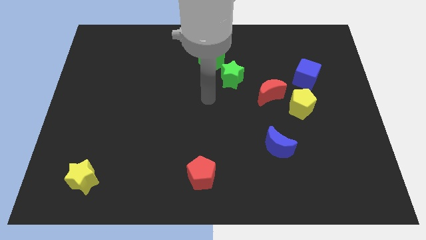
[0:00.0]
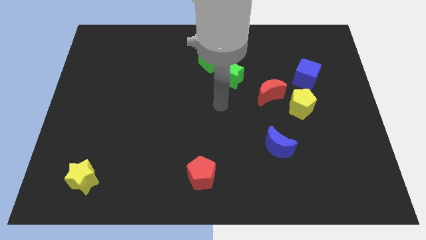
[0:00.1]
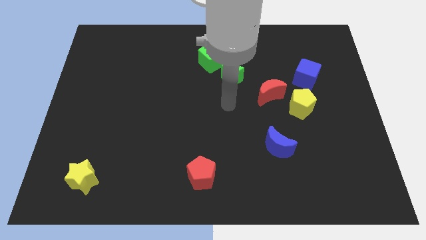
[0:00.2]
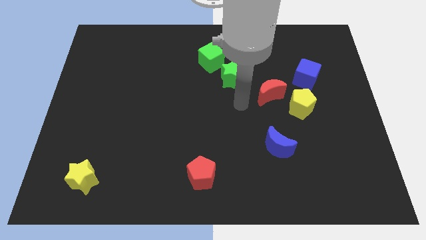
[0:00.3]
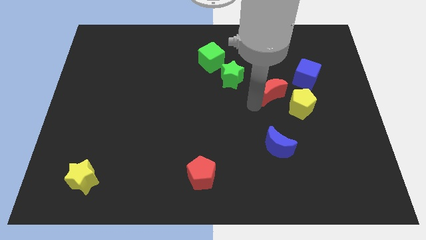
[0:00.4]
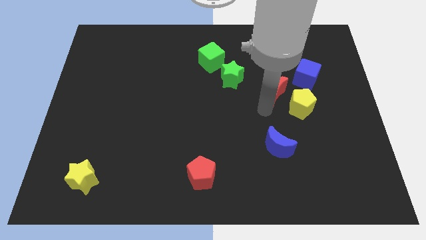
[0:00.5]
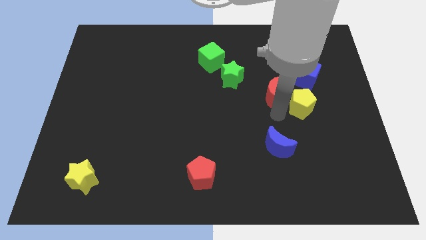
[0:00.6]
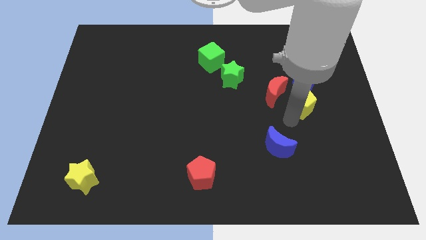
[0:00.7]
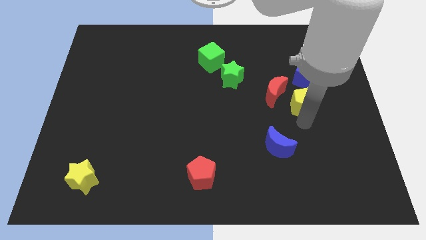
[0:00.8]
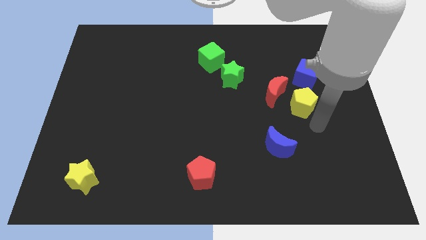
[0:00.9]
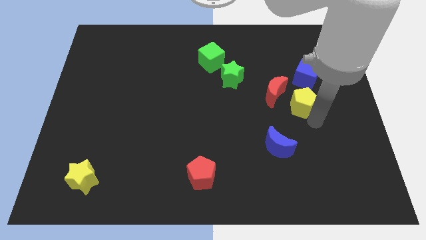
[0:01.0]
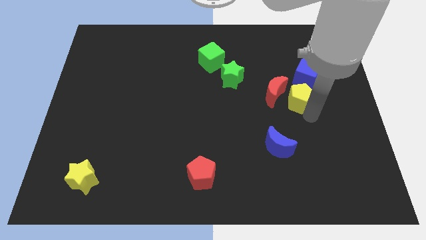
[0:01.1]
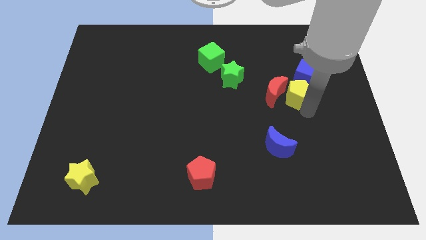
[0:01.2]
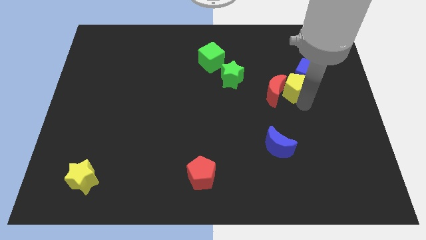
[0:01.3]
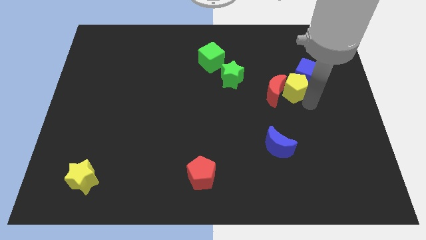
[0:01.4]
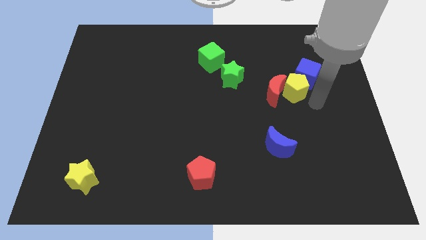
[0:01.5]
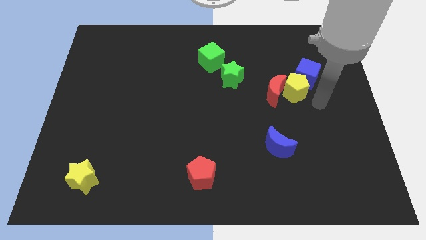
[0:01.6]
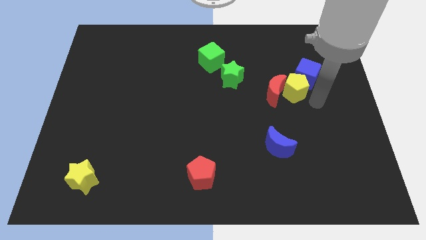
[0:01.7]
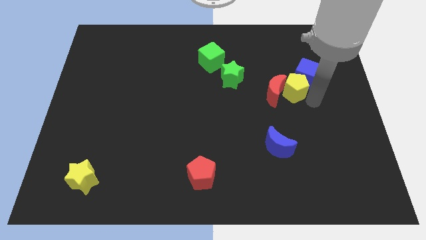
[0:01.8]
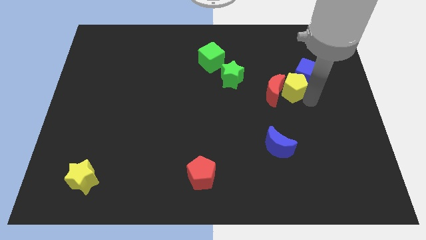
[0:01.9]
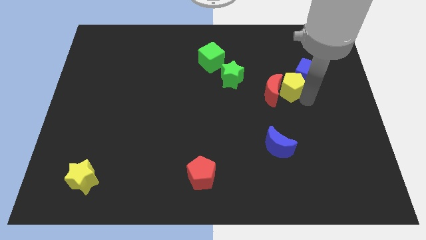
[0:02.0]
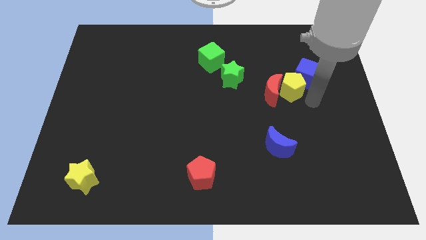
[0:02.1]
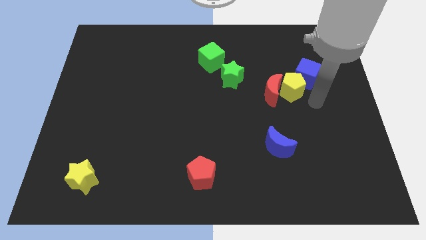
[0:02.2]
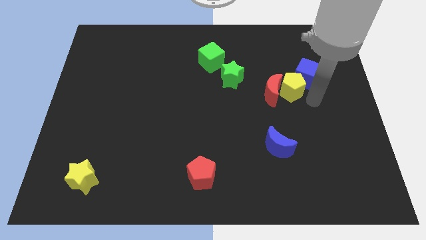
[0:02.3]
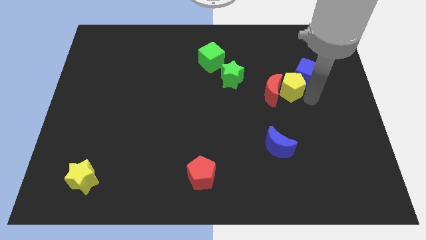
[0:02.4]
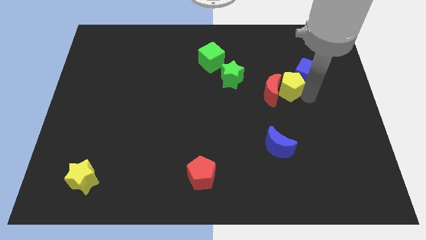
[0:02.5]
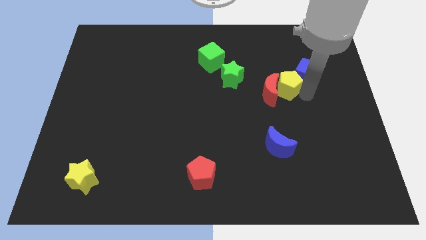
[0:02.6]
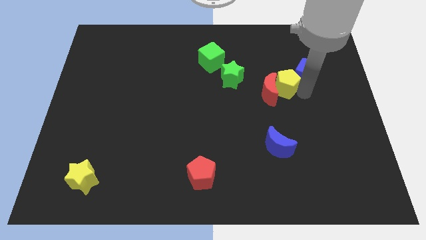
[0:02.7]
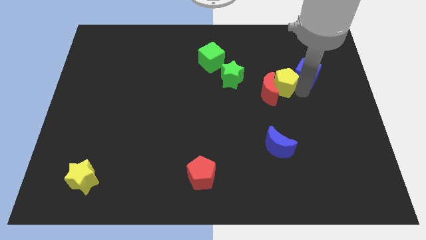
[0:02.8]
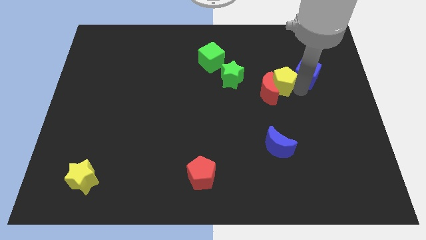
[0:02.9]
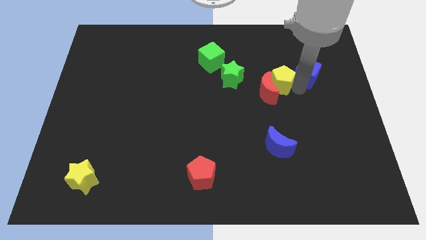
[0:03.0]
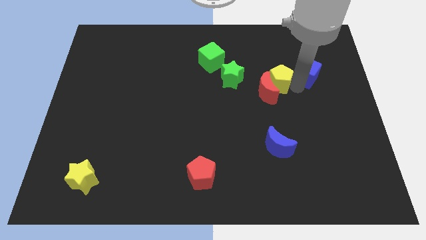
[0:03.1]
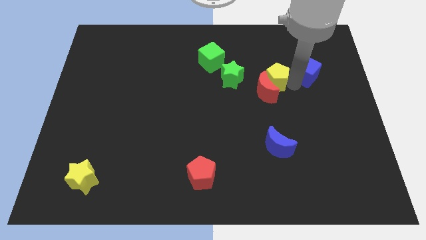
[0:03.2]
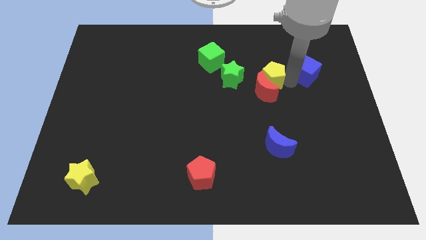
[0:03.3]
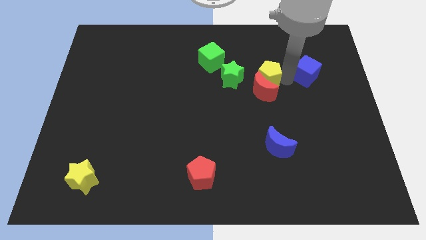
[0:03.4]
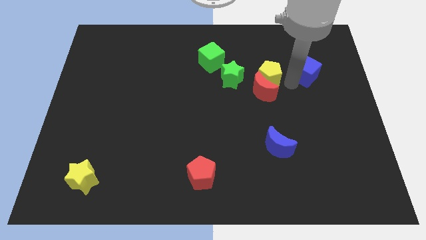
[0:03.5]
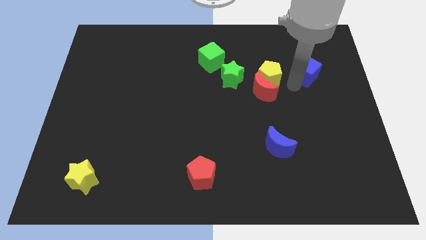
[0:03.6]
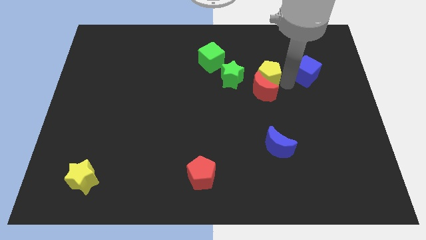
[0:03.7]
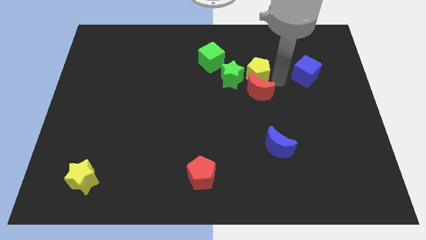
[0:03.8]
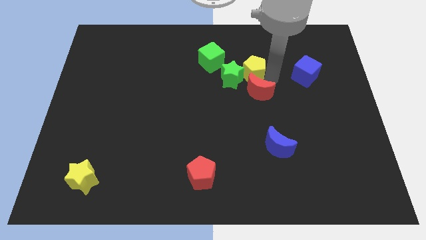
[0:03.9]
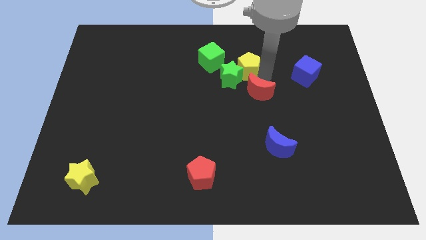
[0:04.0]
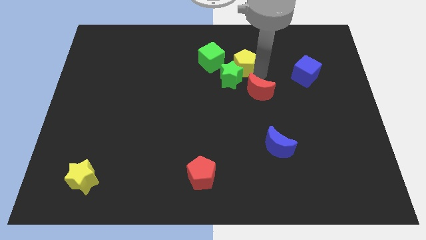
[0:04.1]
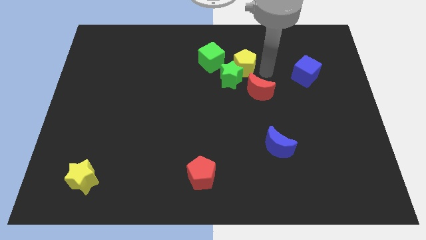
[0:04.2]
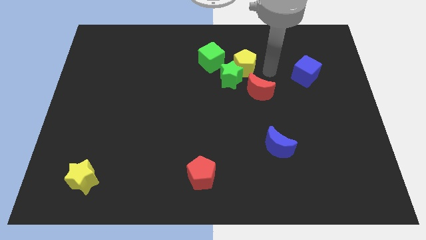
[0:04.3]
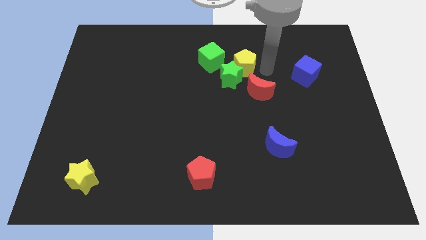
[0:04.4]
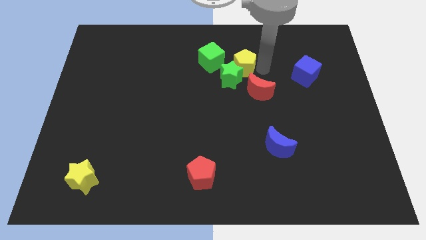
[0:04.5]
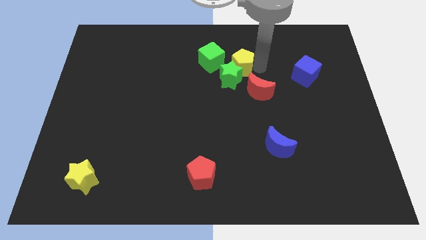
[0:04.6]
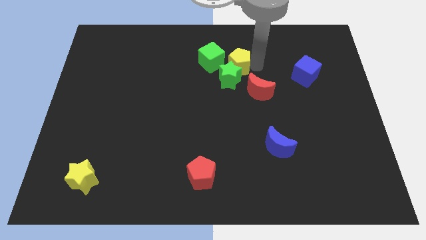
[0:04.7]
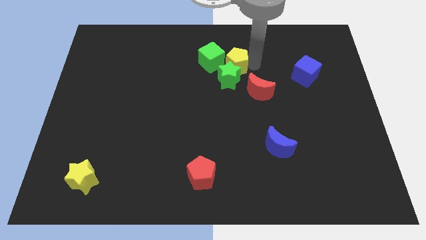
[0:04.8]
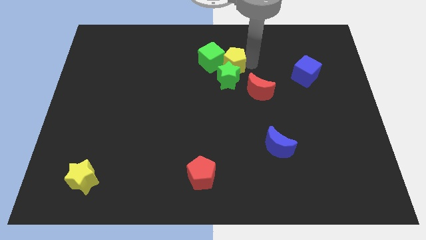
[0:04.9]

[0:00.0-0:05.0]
push the yellow pentagon to the green cube

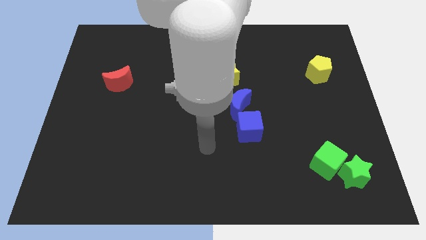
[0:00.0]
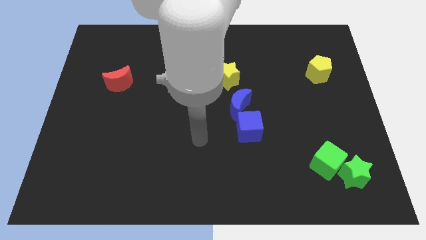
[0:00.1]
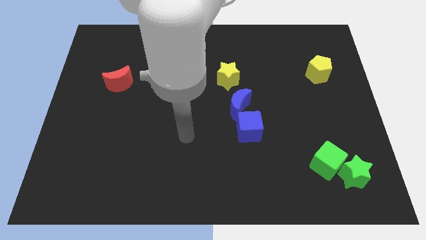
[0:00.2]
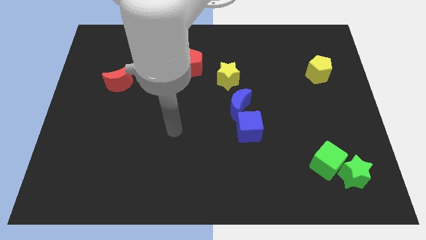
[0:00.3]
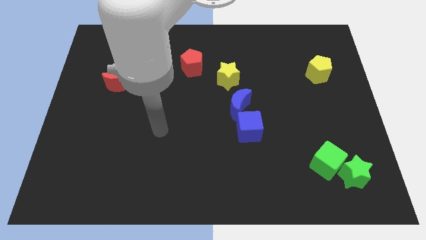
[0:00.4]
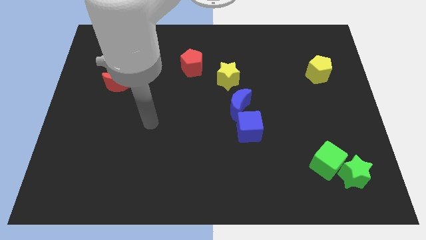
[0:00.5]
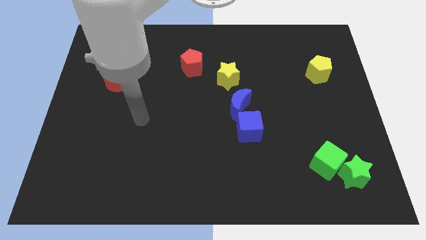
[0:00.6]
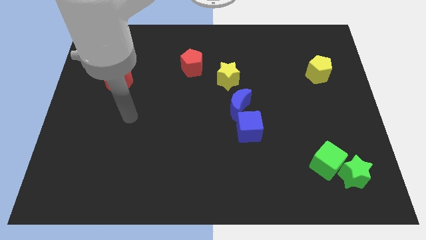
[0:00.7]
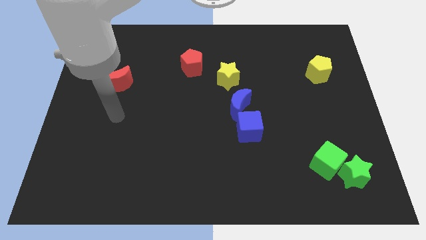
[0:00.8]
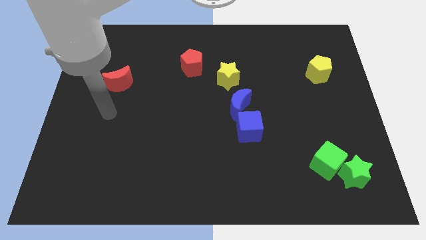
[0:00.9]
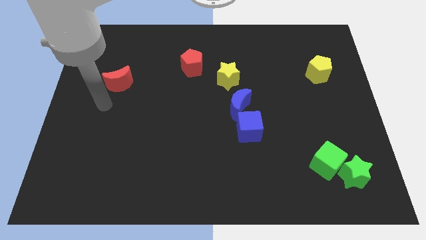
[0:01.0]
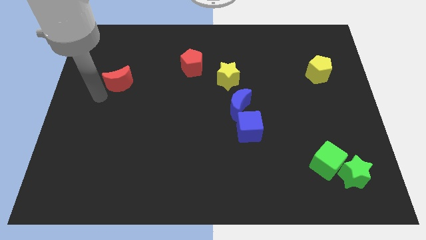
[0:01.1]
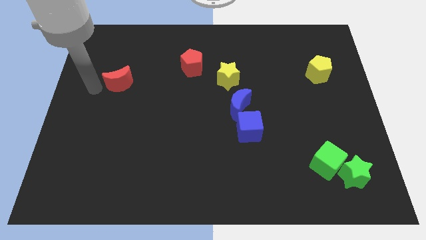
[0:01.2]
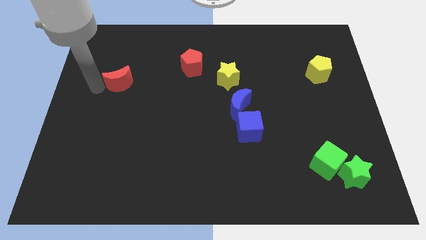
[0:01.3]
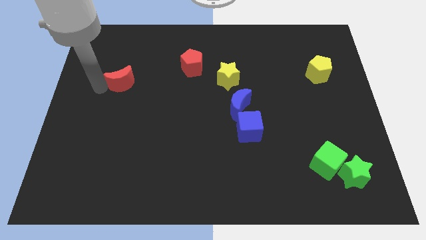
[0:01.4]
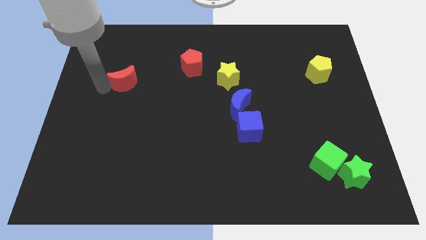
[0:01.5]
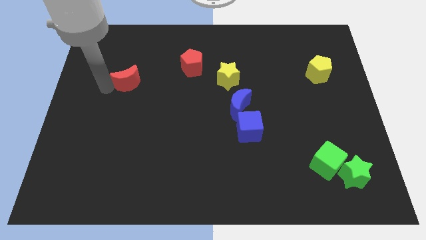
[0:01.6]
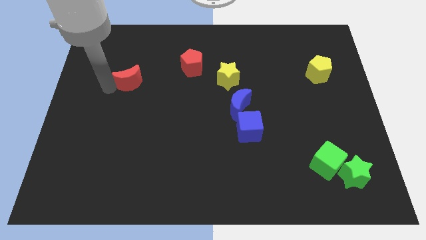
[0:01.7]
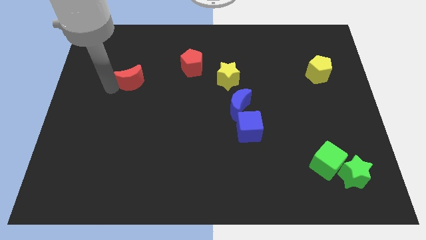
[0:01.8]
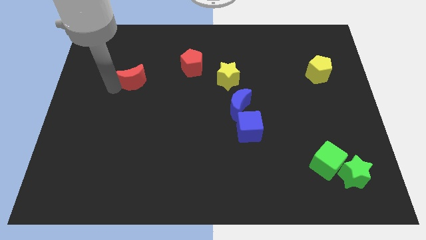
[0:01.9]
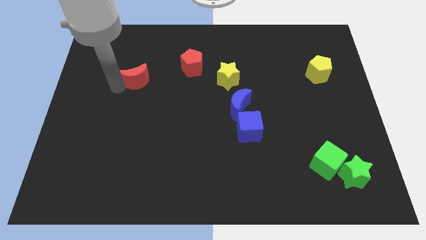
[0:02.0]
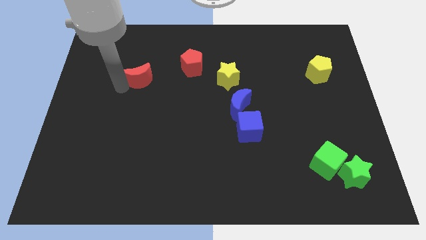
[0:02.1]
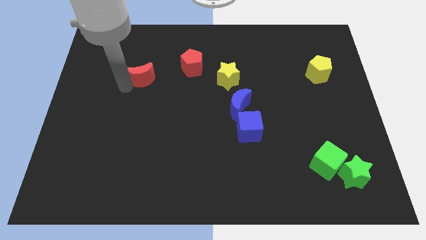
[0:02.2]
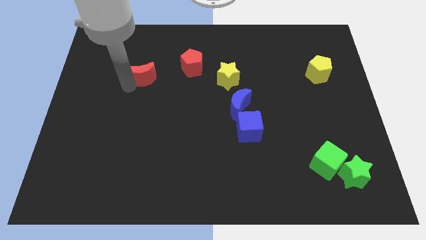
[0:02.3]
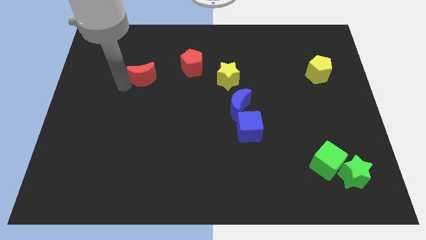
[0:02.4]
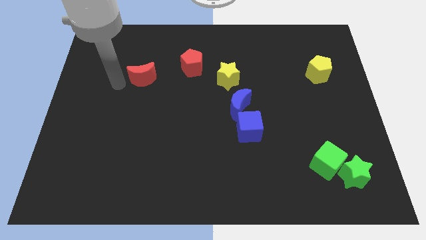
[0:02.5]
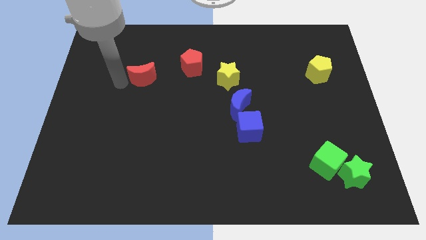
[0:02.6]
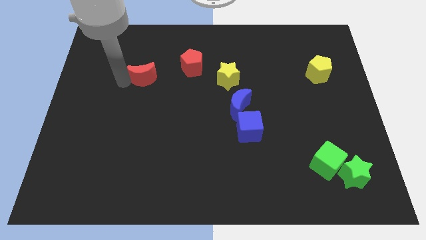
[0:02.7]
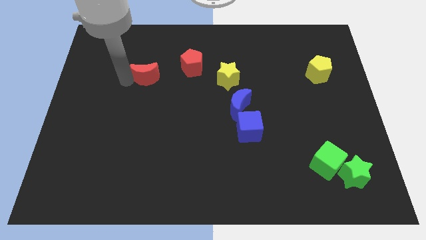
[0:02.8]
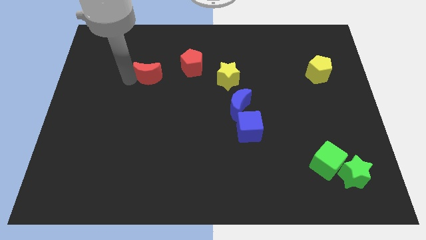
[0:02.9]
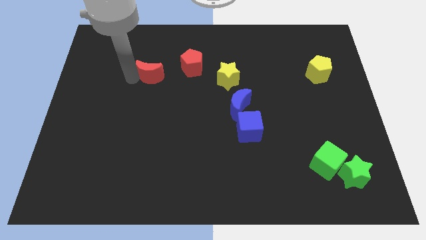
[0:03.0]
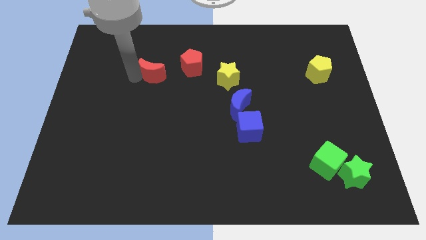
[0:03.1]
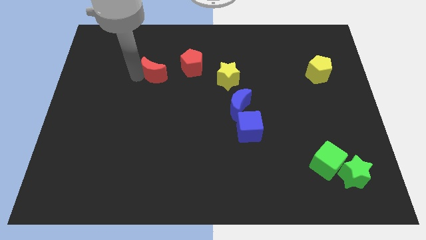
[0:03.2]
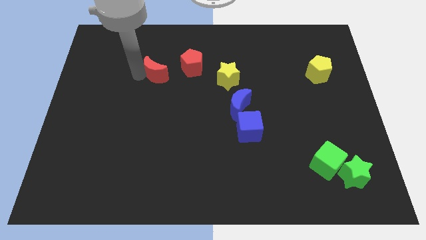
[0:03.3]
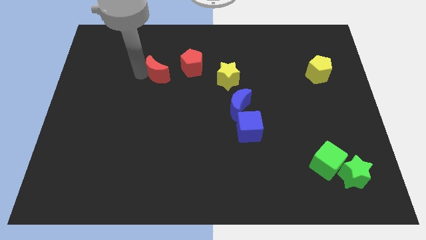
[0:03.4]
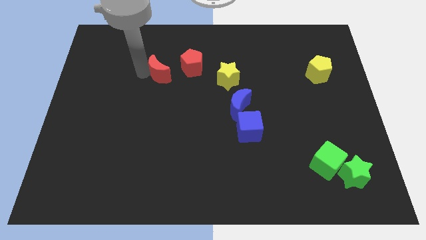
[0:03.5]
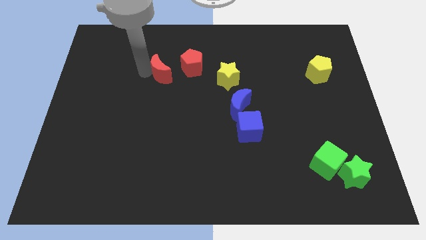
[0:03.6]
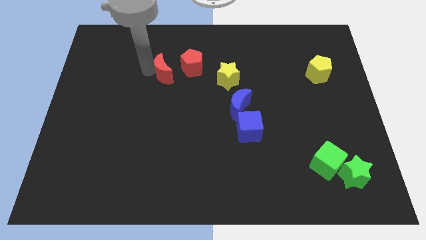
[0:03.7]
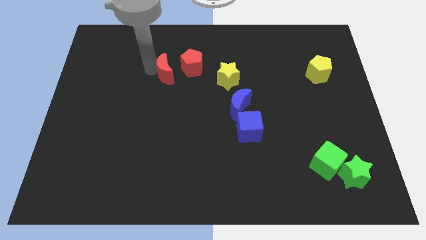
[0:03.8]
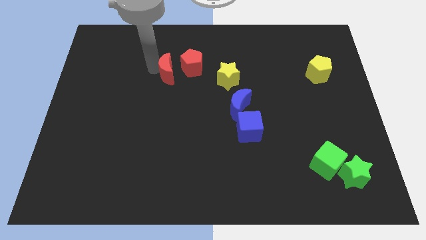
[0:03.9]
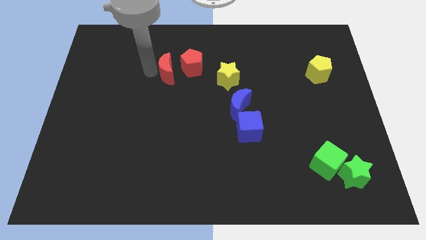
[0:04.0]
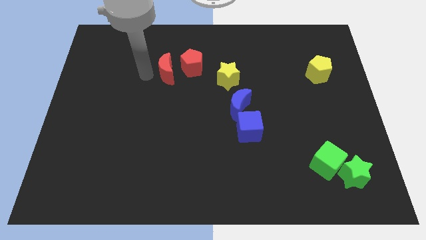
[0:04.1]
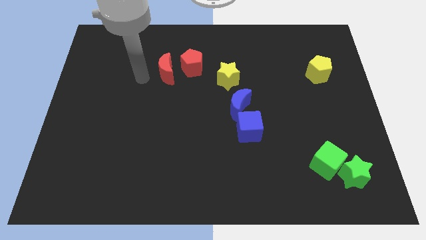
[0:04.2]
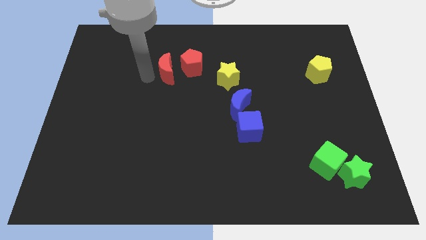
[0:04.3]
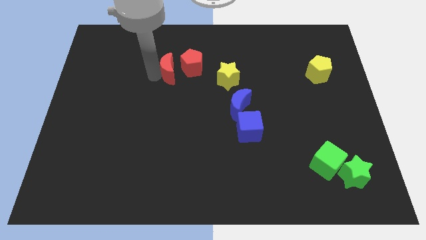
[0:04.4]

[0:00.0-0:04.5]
move the red moon close to the red pentagon
